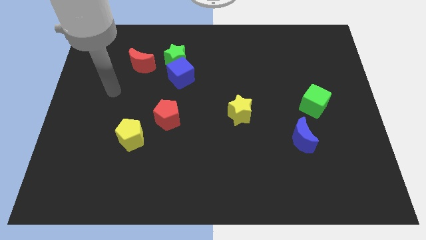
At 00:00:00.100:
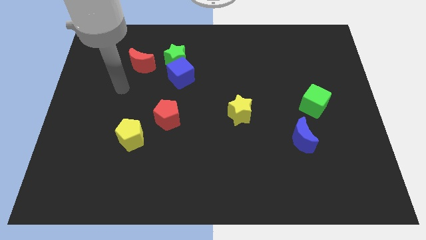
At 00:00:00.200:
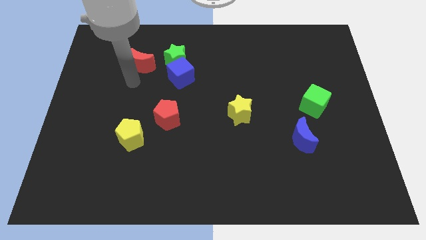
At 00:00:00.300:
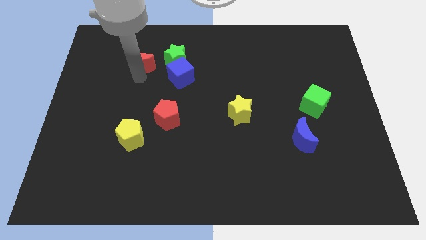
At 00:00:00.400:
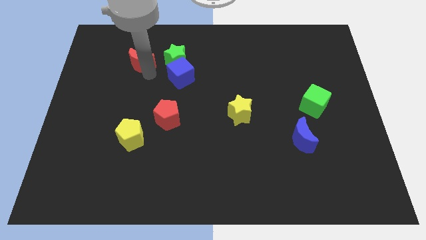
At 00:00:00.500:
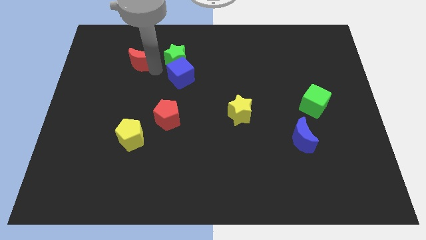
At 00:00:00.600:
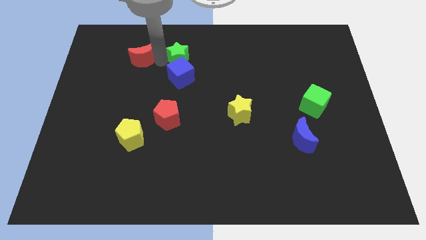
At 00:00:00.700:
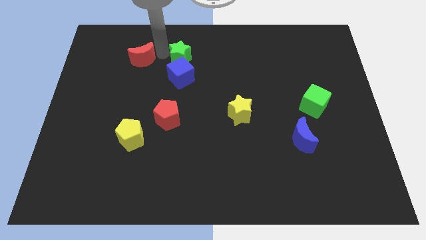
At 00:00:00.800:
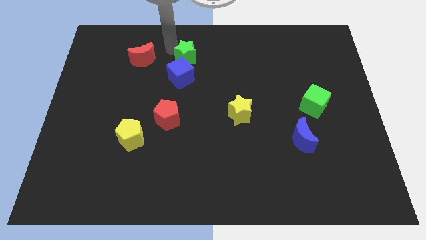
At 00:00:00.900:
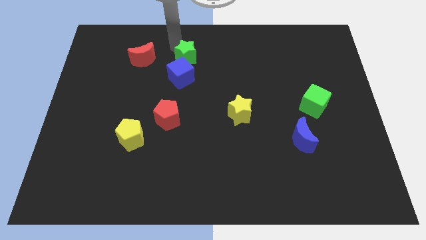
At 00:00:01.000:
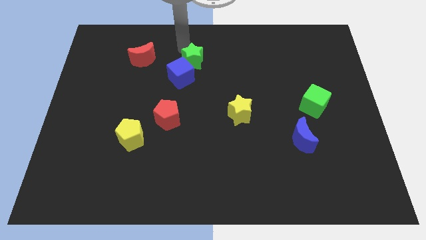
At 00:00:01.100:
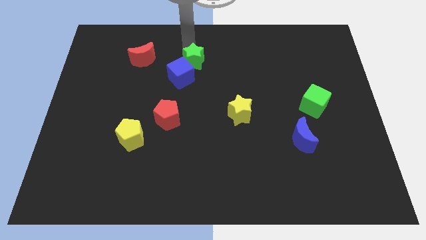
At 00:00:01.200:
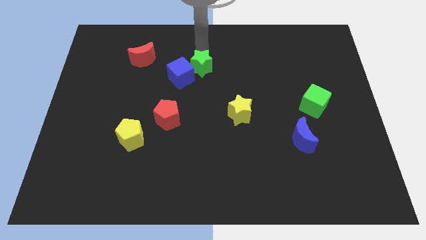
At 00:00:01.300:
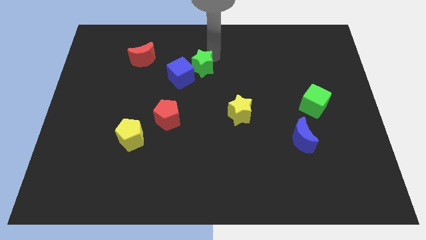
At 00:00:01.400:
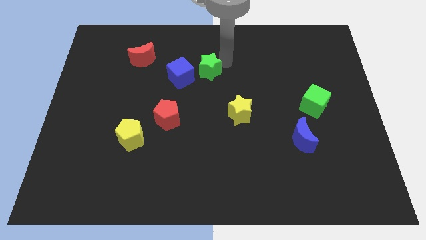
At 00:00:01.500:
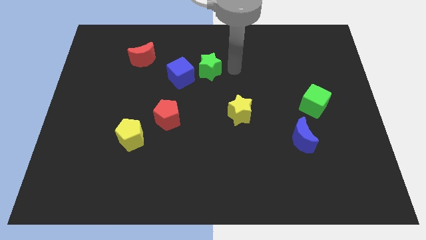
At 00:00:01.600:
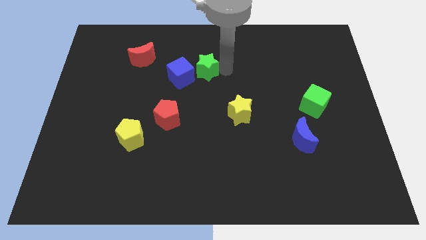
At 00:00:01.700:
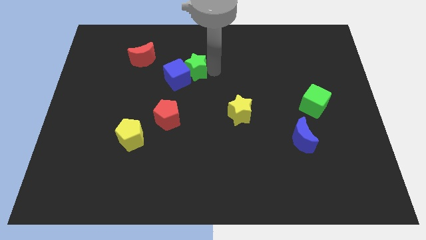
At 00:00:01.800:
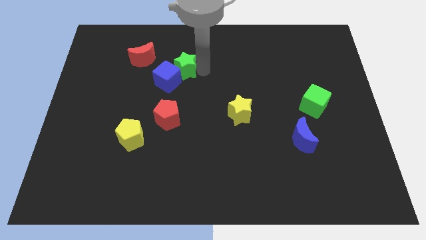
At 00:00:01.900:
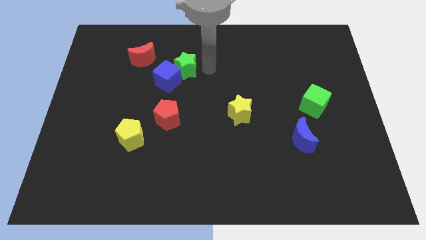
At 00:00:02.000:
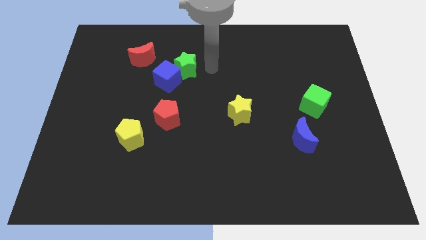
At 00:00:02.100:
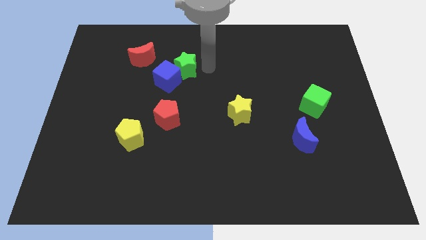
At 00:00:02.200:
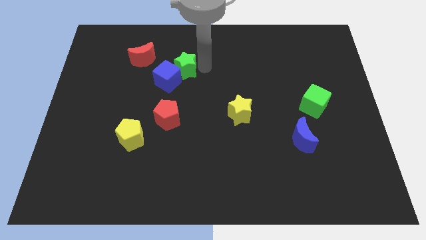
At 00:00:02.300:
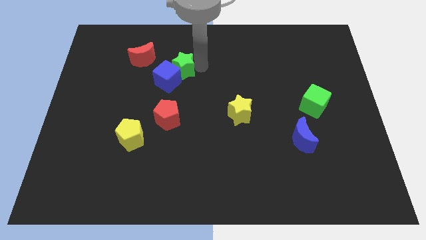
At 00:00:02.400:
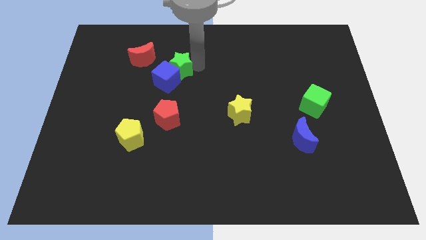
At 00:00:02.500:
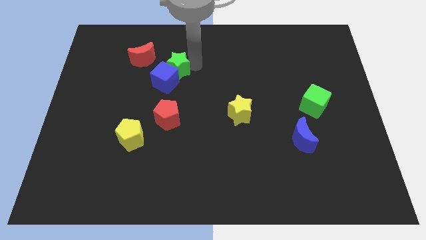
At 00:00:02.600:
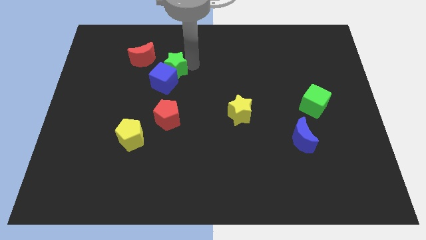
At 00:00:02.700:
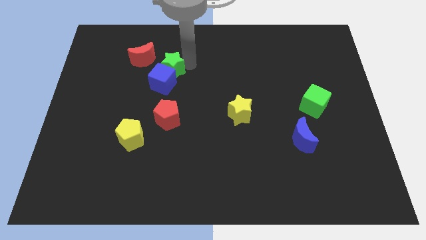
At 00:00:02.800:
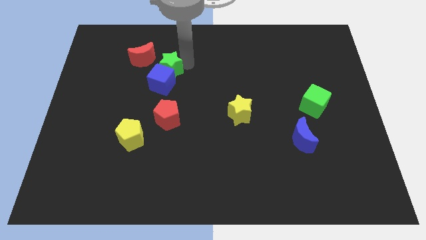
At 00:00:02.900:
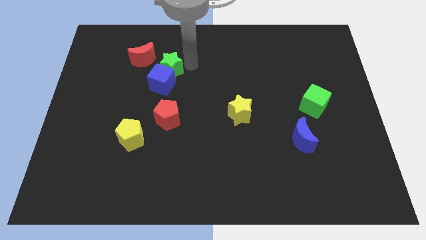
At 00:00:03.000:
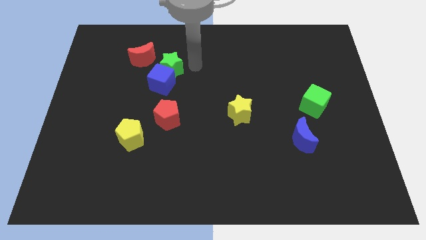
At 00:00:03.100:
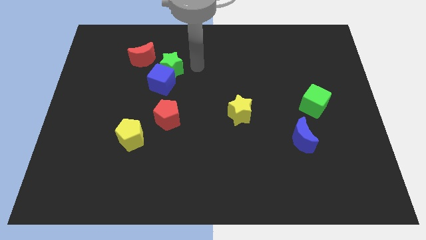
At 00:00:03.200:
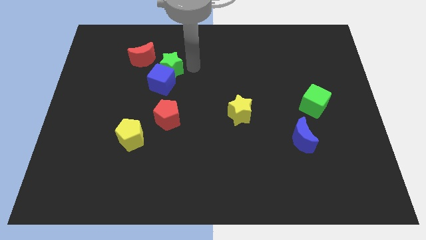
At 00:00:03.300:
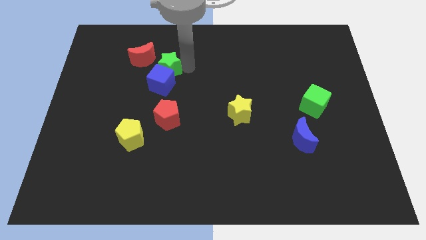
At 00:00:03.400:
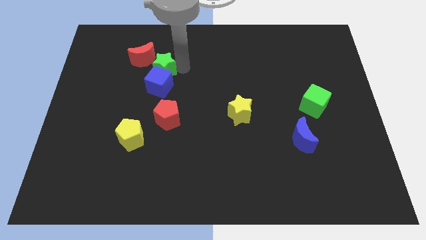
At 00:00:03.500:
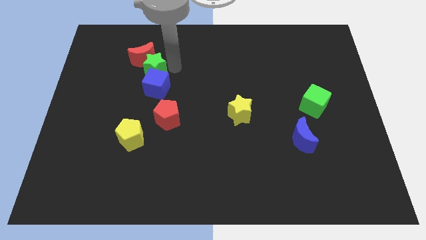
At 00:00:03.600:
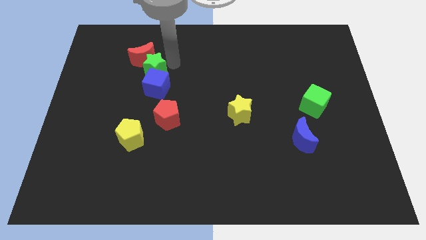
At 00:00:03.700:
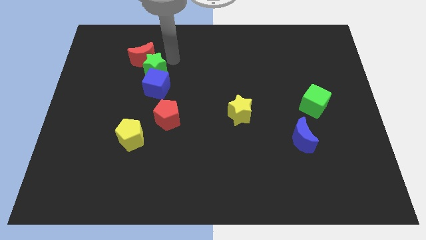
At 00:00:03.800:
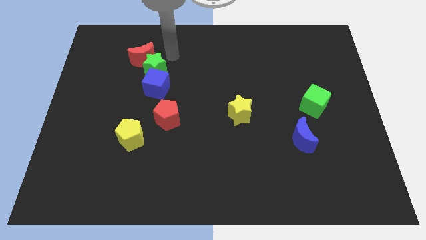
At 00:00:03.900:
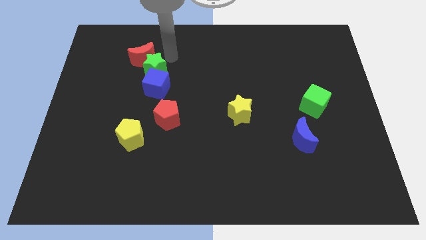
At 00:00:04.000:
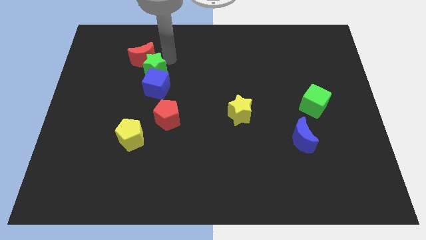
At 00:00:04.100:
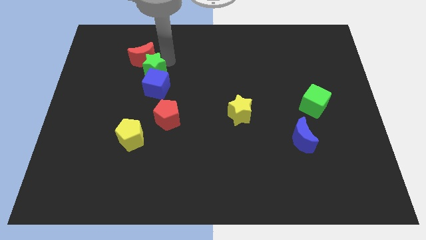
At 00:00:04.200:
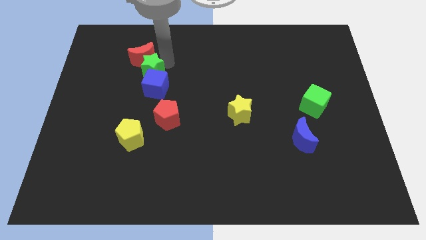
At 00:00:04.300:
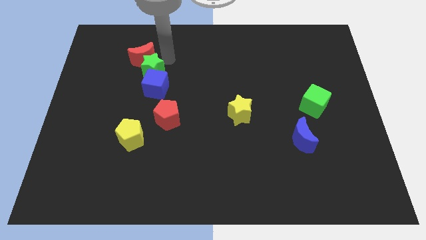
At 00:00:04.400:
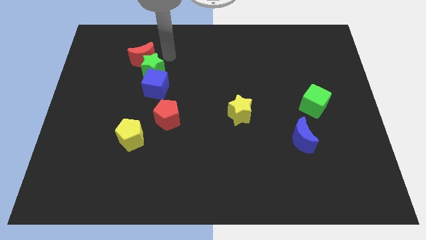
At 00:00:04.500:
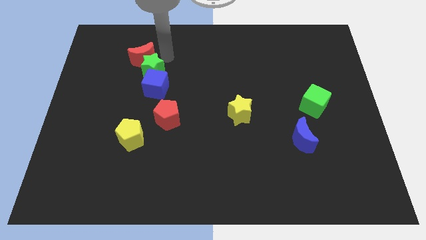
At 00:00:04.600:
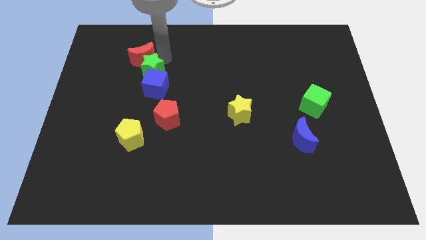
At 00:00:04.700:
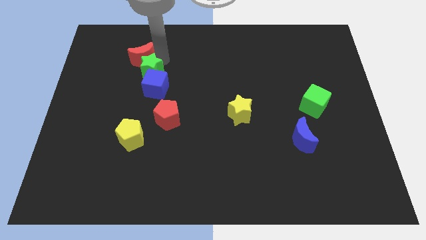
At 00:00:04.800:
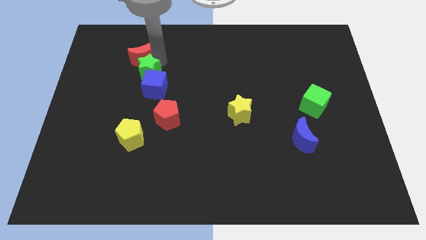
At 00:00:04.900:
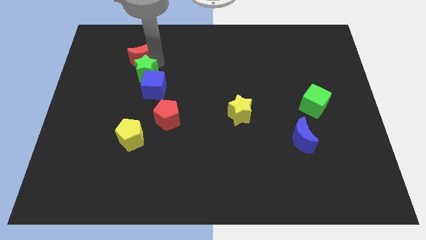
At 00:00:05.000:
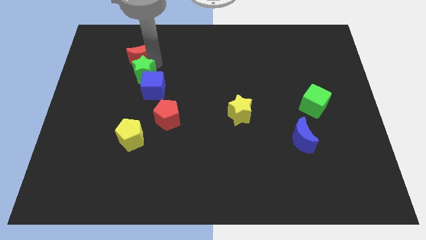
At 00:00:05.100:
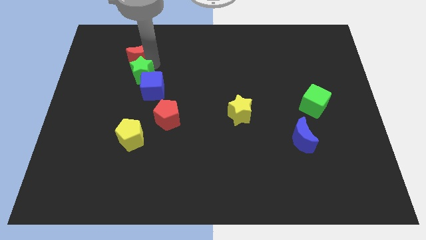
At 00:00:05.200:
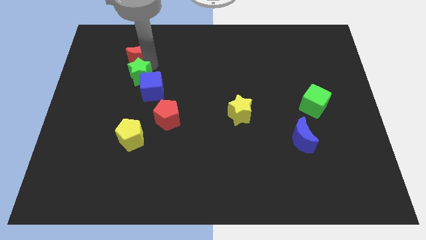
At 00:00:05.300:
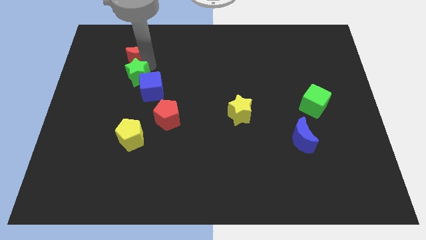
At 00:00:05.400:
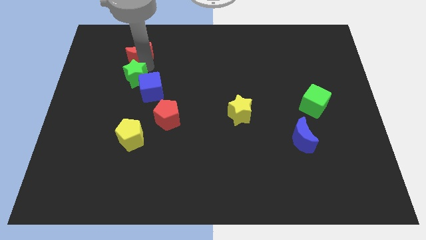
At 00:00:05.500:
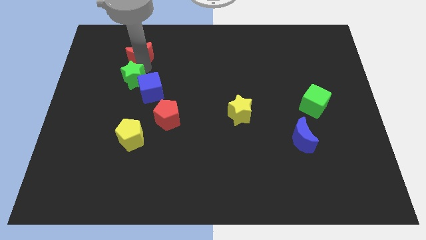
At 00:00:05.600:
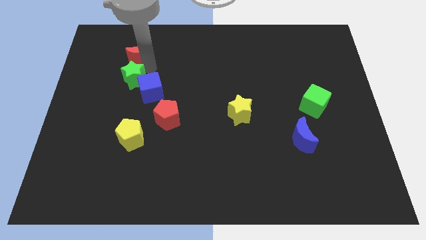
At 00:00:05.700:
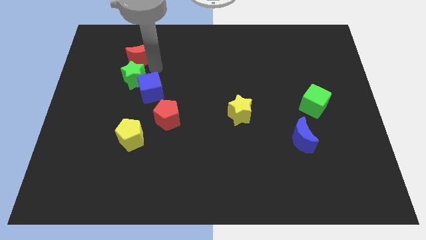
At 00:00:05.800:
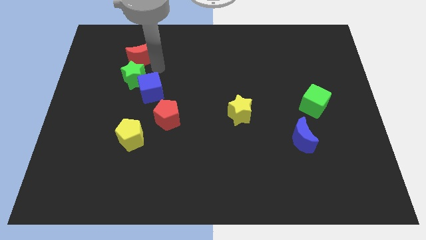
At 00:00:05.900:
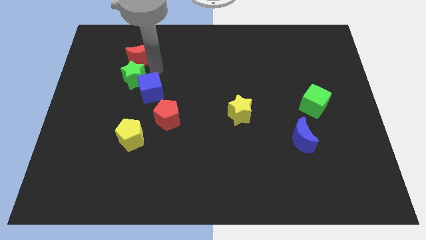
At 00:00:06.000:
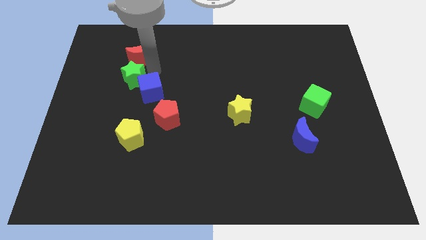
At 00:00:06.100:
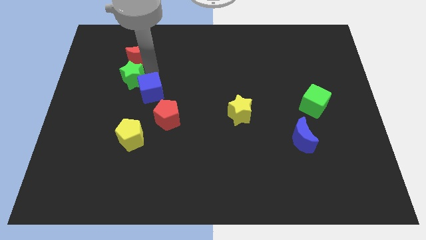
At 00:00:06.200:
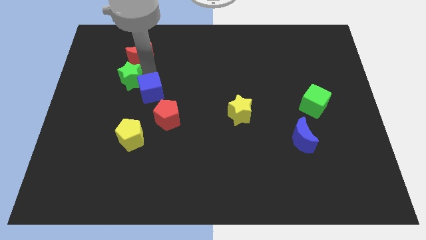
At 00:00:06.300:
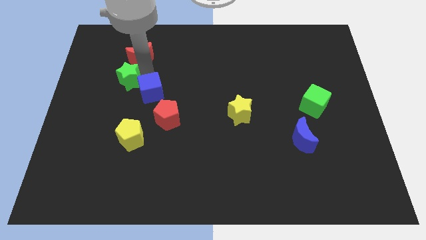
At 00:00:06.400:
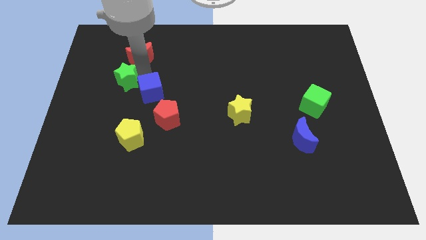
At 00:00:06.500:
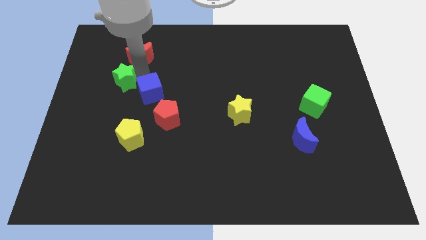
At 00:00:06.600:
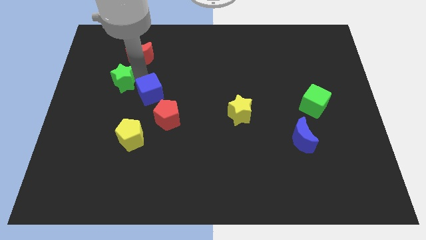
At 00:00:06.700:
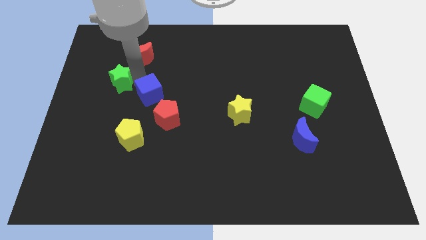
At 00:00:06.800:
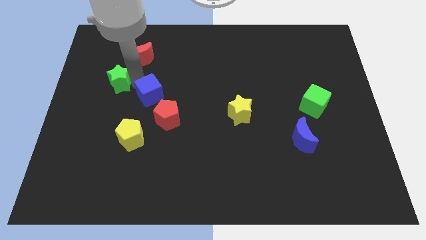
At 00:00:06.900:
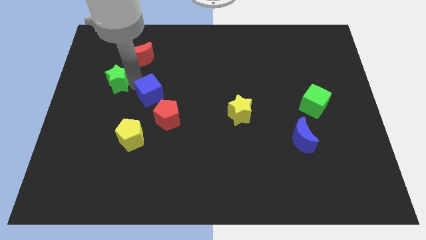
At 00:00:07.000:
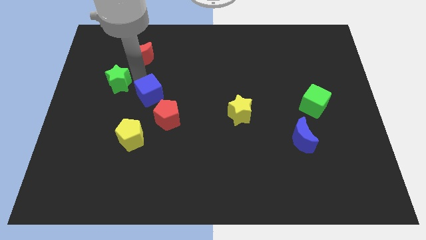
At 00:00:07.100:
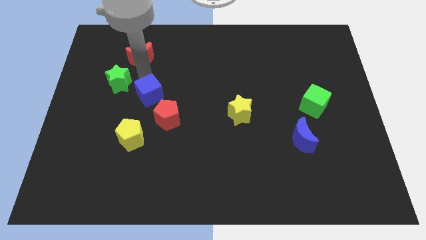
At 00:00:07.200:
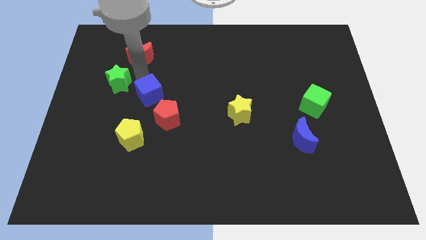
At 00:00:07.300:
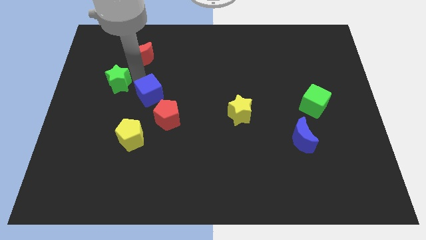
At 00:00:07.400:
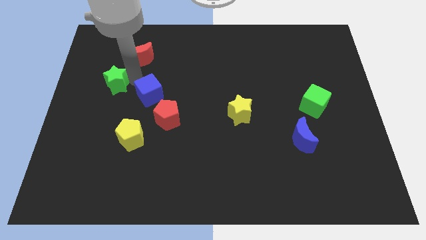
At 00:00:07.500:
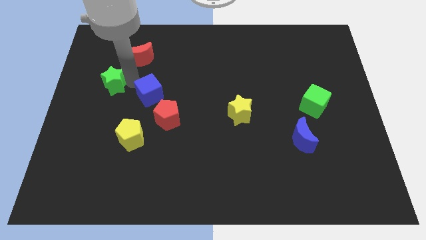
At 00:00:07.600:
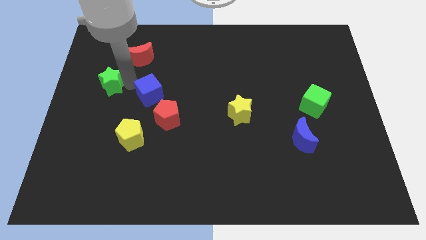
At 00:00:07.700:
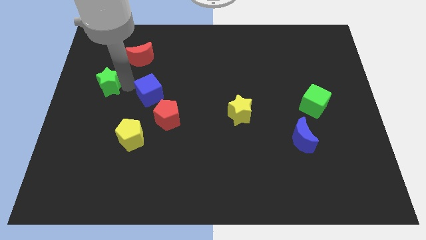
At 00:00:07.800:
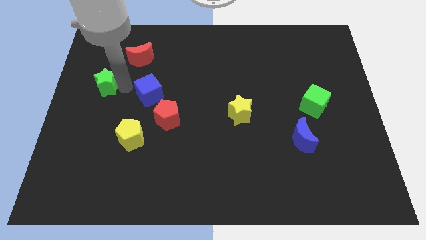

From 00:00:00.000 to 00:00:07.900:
move the green star to the left side of the board
